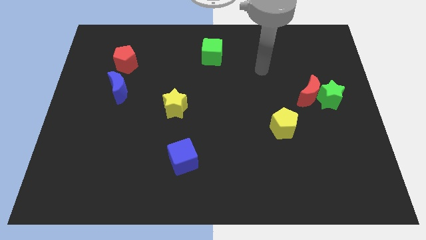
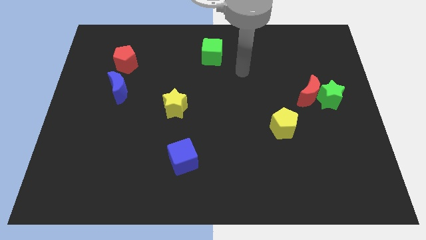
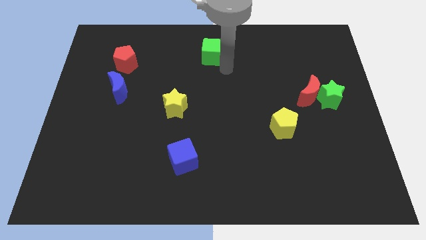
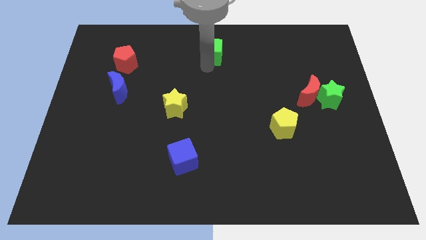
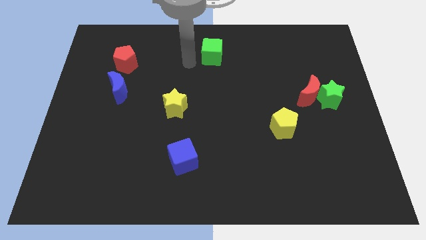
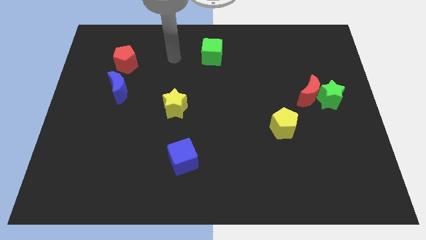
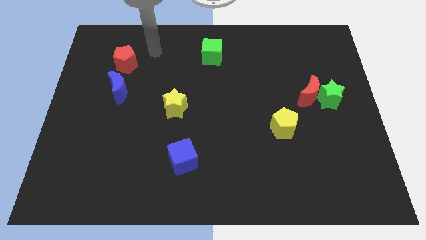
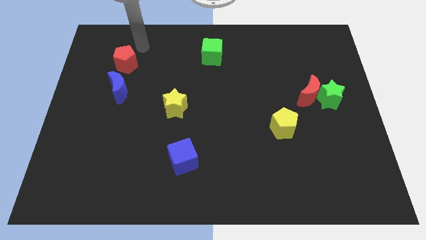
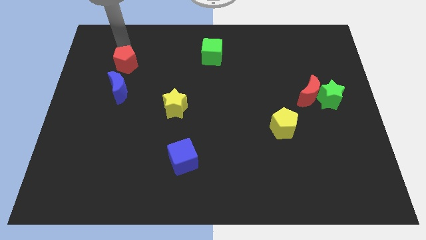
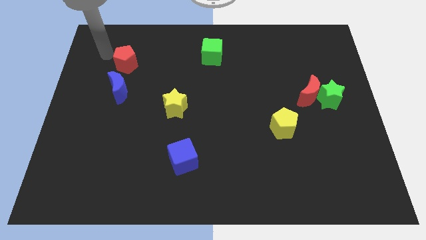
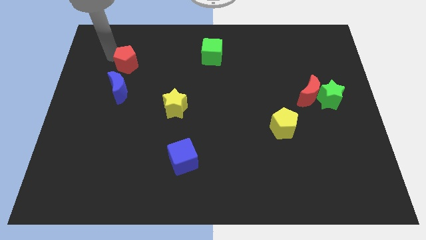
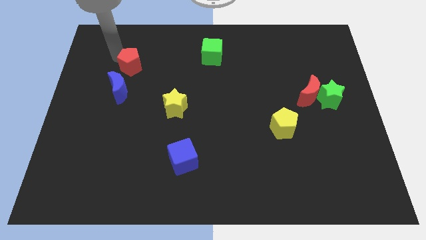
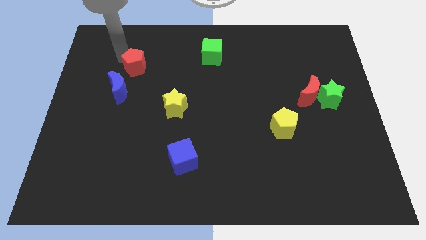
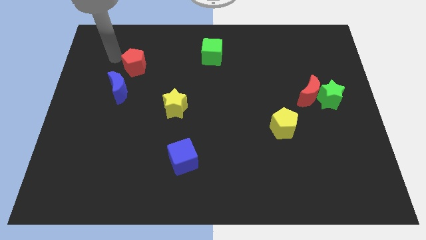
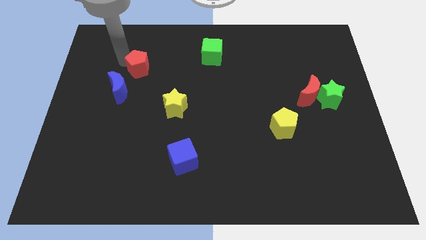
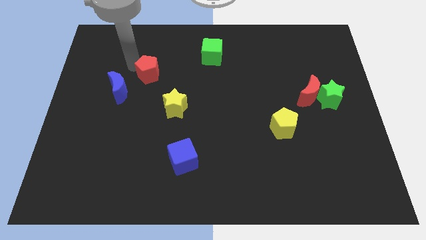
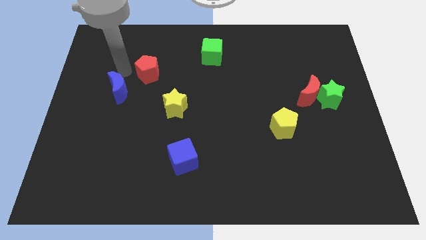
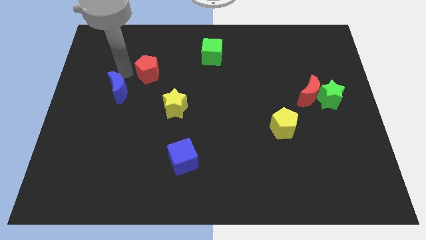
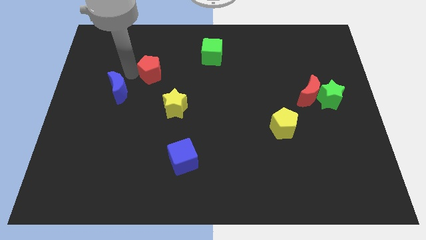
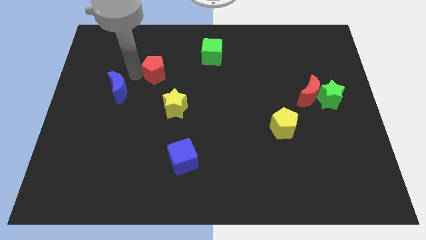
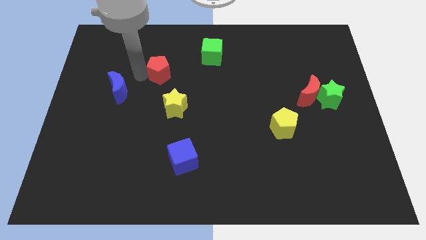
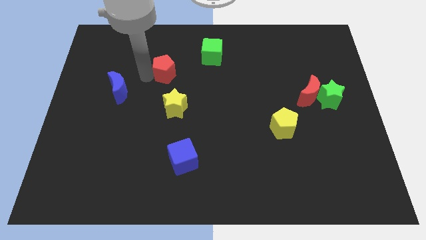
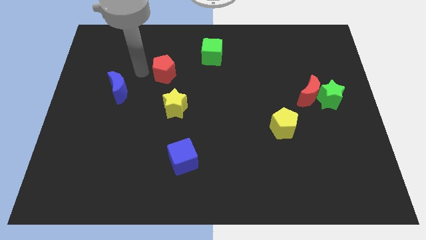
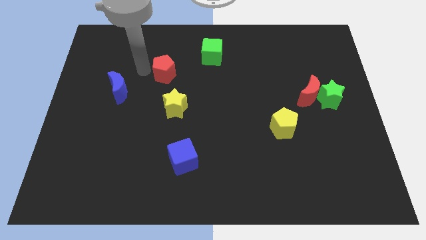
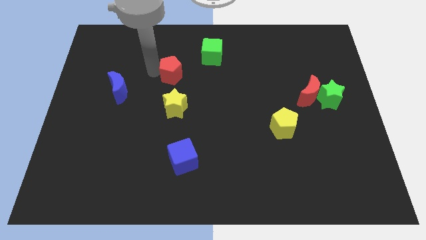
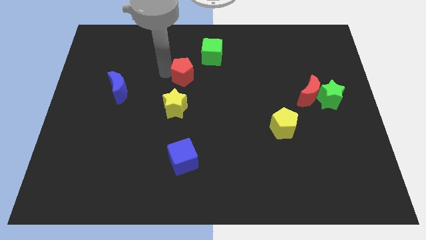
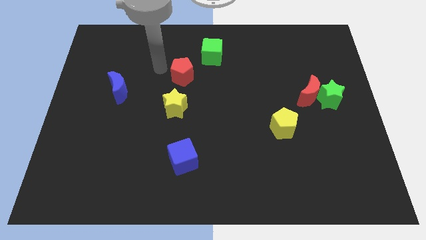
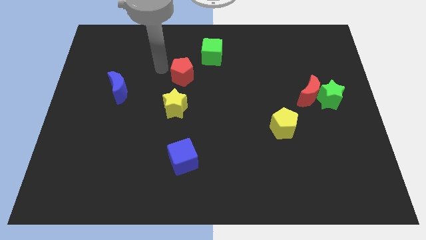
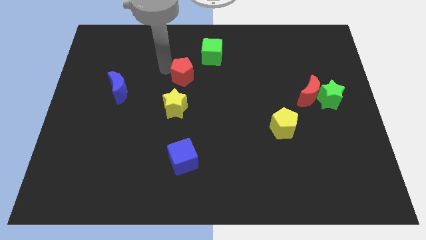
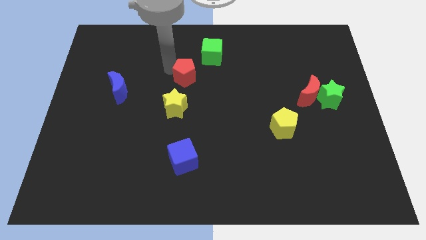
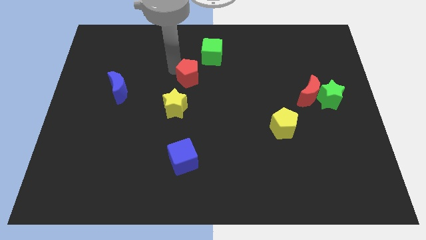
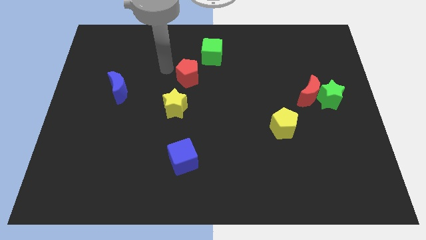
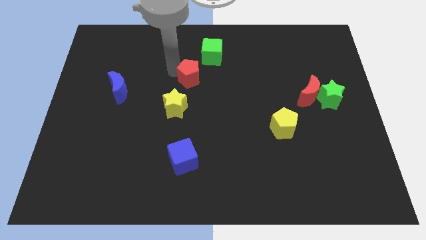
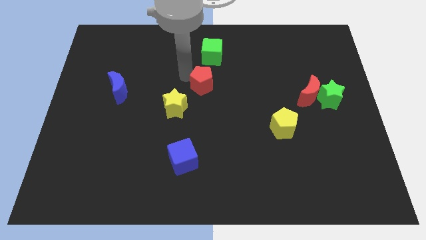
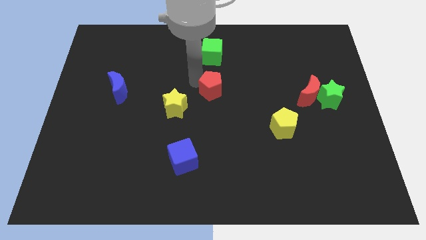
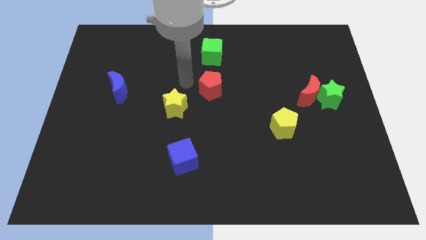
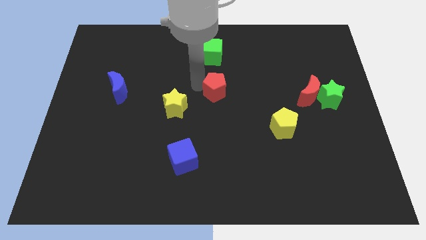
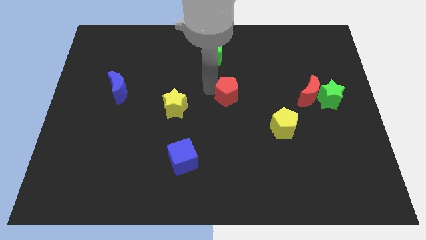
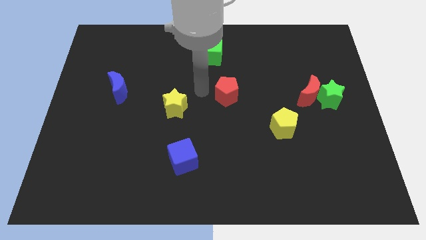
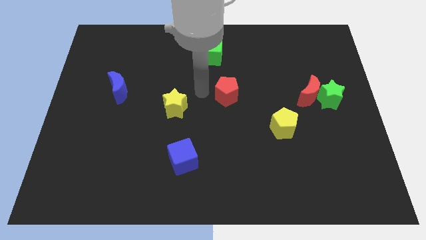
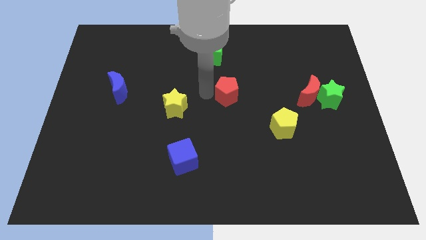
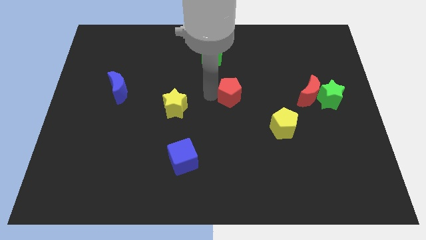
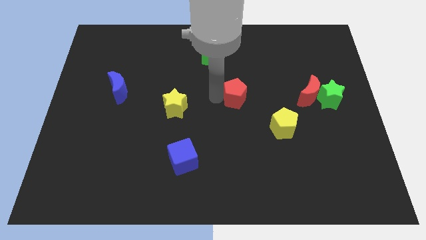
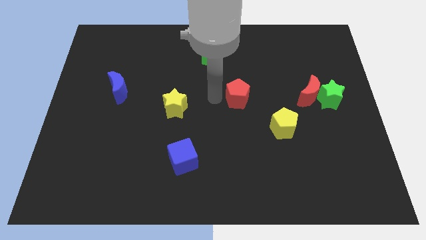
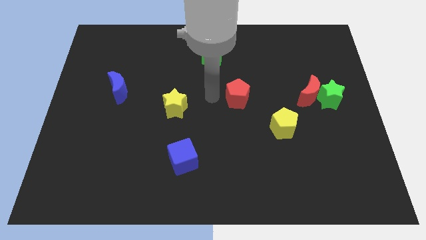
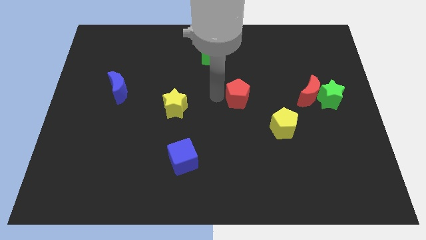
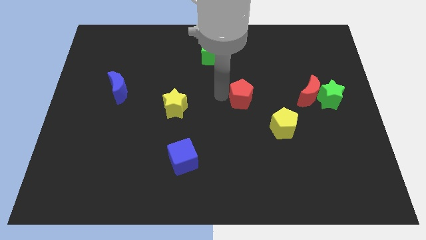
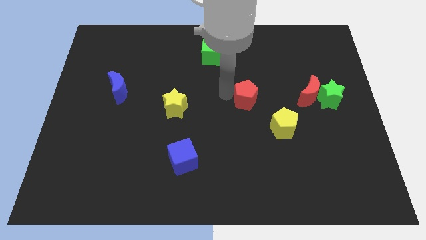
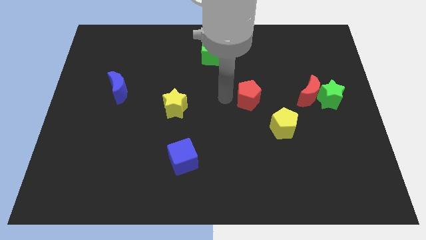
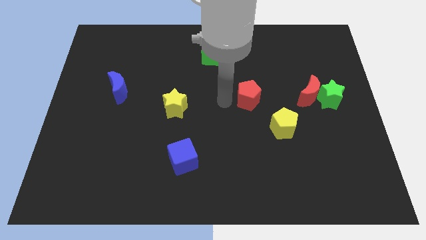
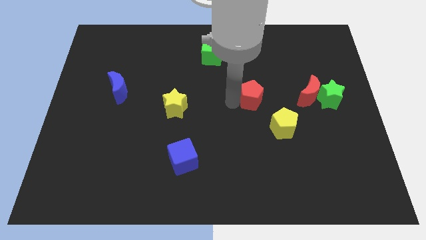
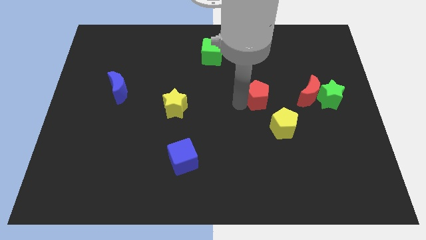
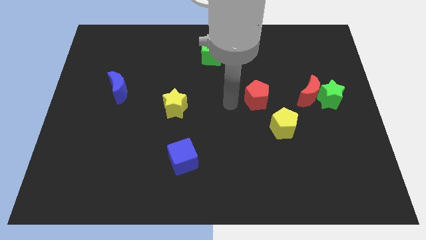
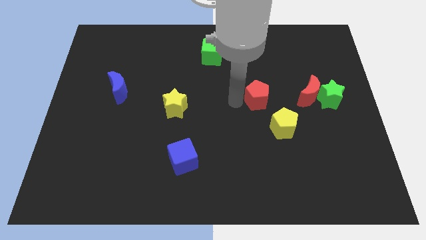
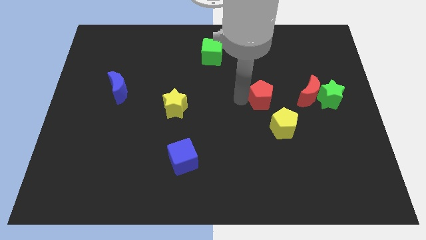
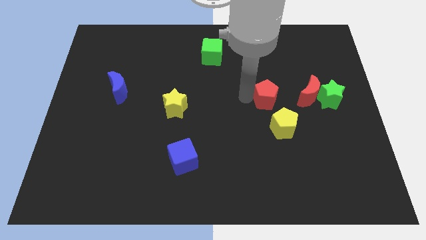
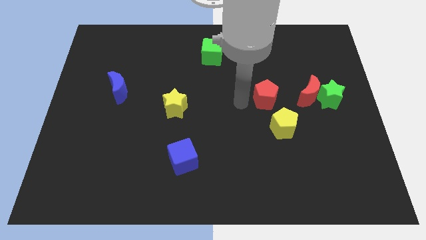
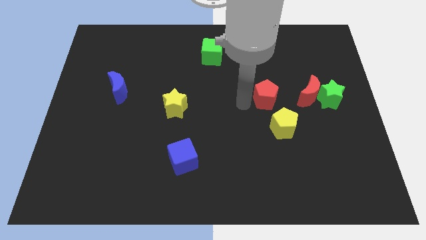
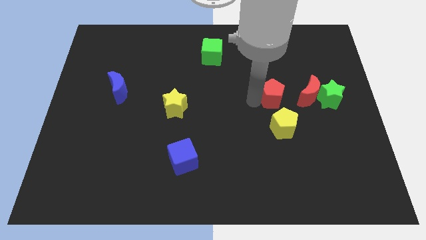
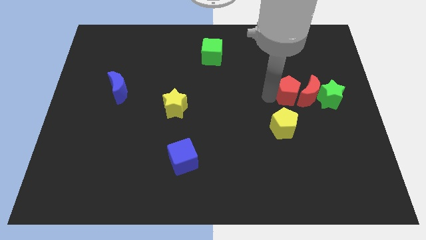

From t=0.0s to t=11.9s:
put the red pentagon to the red moon

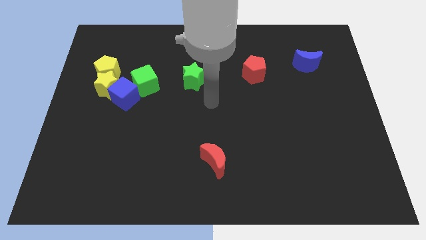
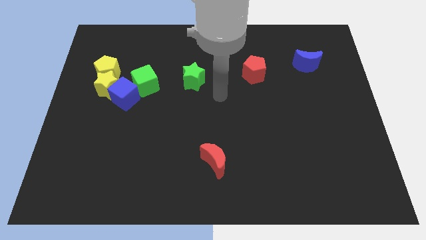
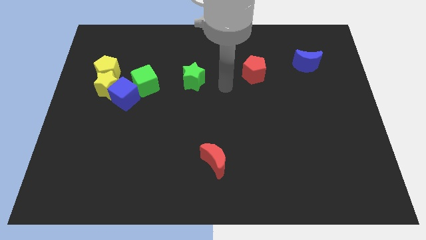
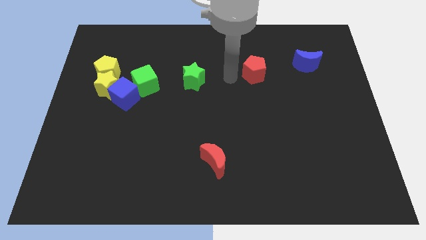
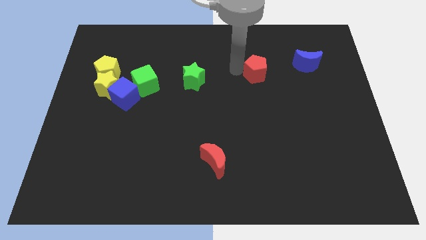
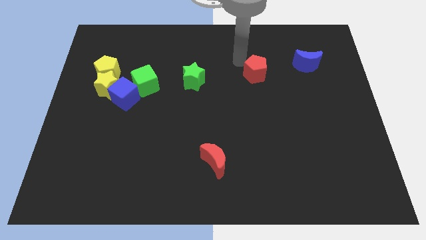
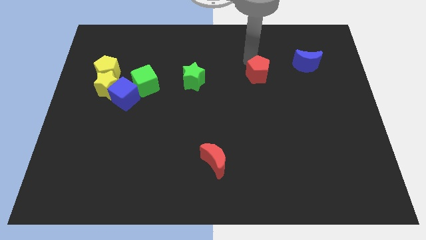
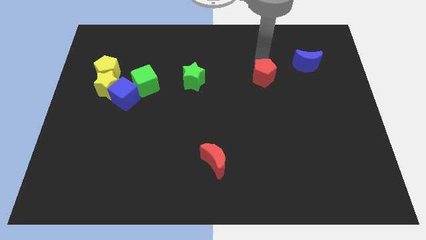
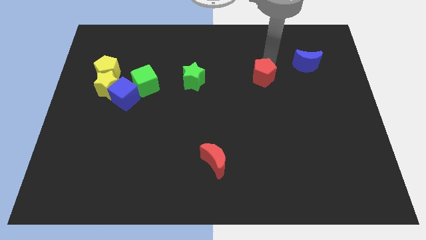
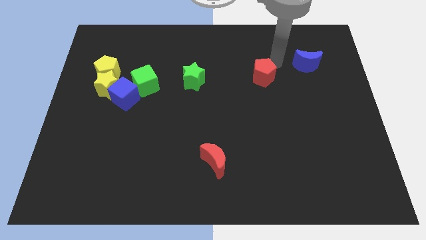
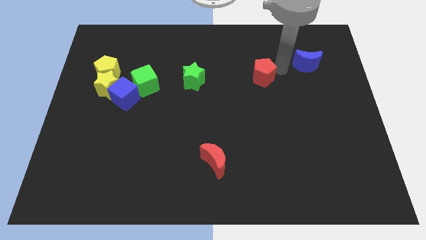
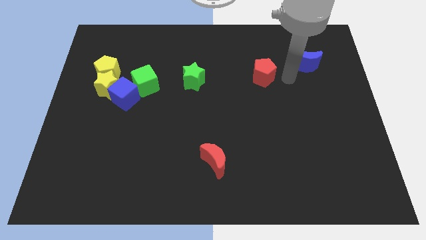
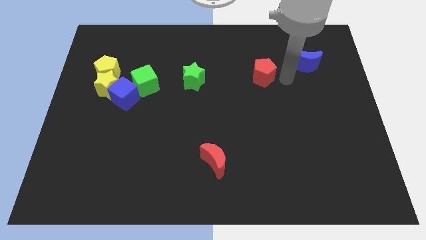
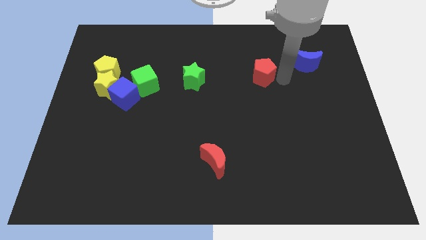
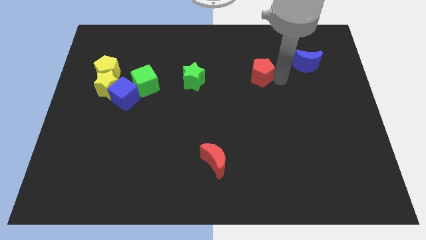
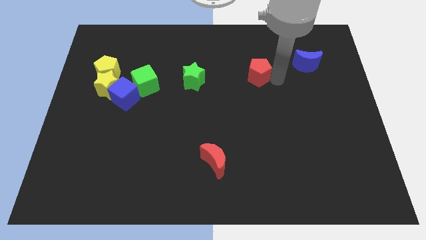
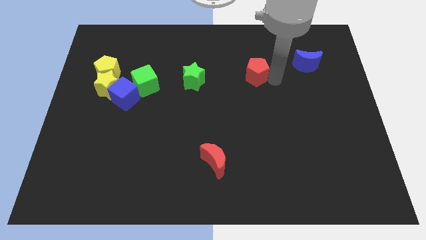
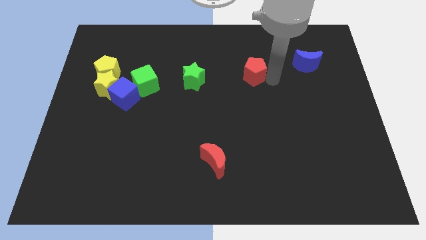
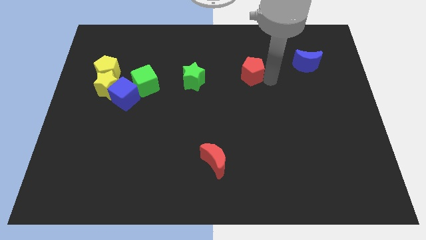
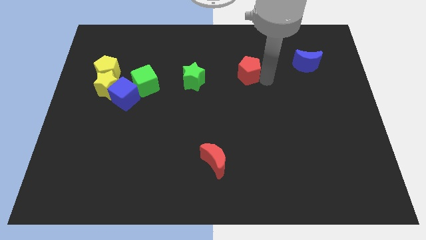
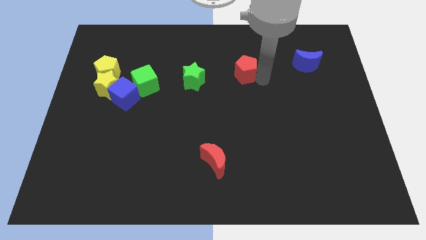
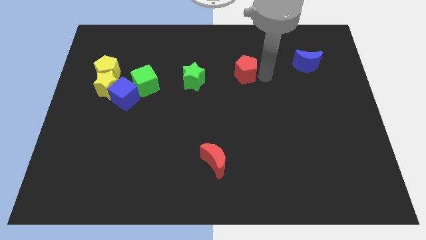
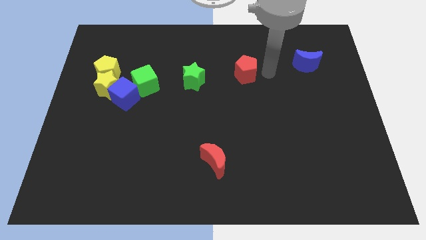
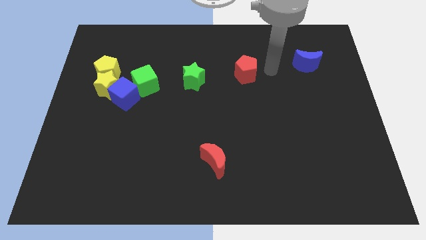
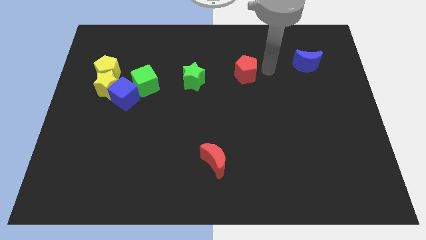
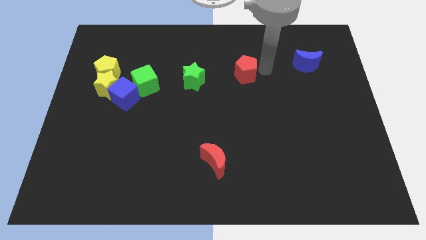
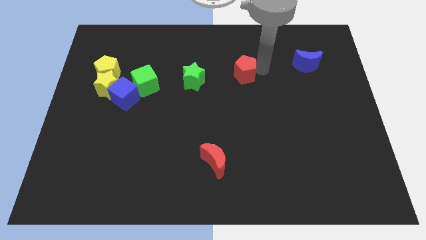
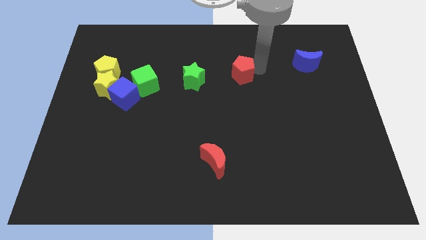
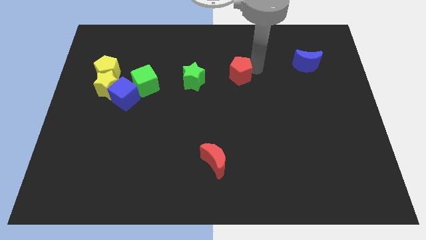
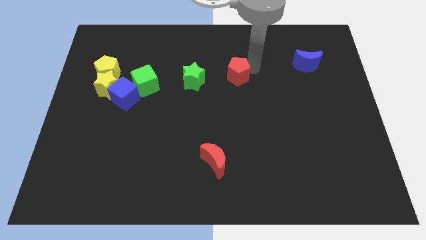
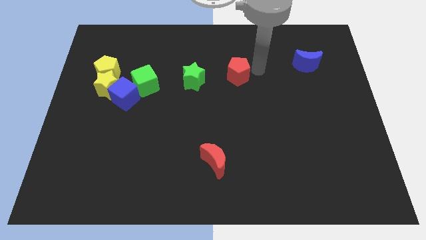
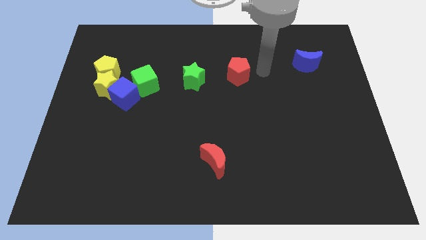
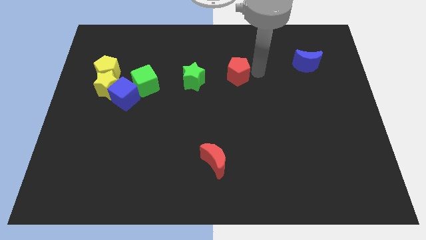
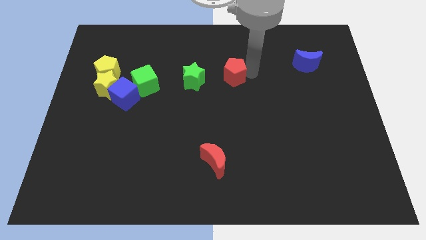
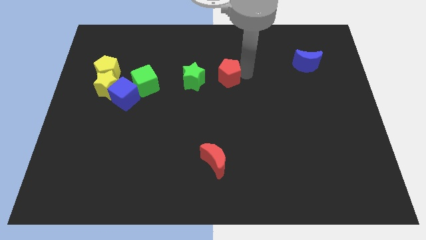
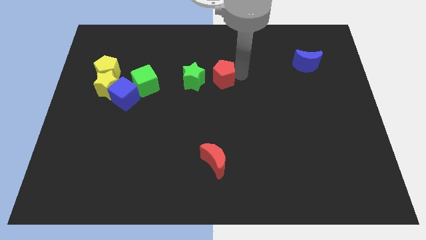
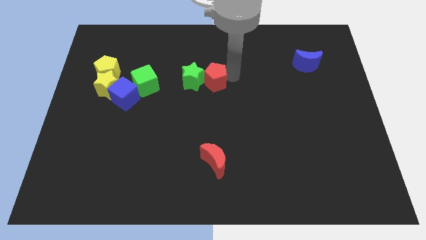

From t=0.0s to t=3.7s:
slide the red pentagon to the green star
